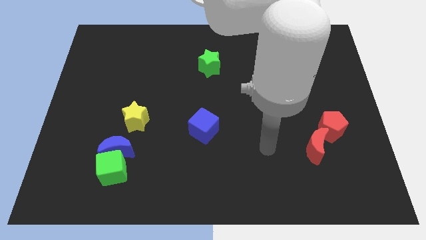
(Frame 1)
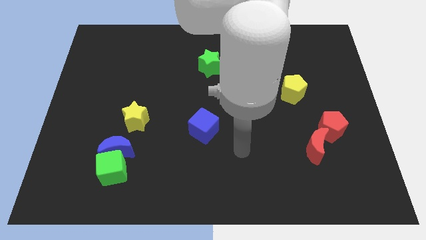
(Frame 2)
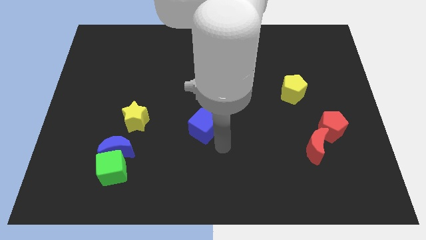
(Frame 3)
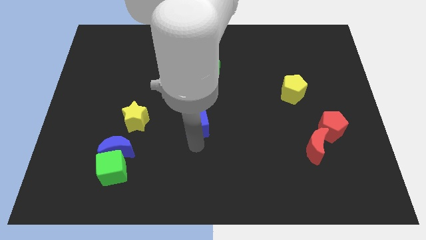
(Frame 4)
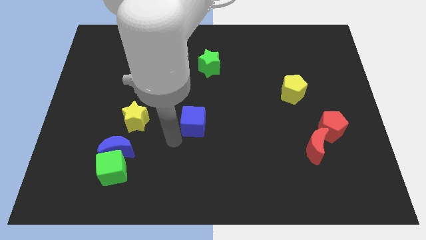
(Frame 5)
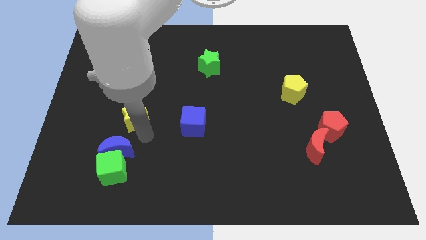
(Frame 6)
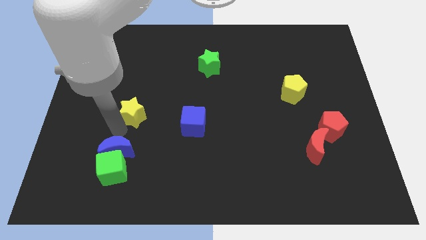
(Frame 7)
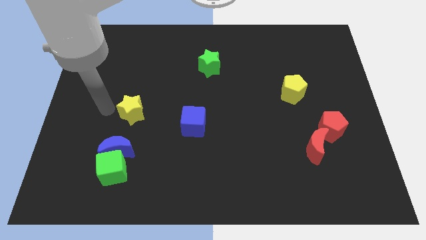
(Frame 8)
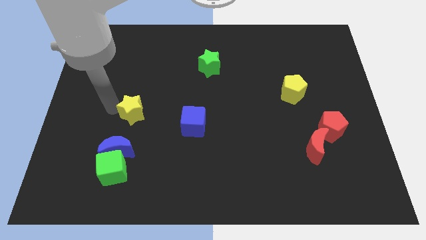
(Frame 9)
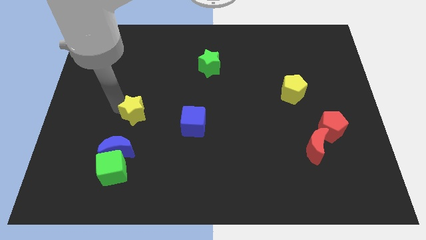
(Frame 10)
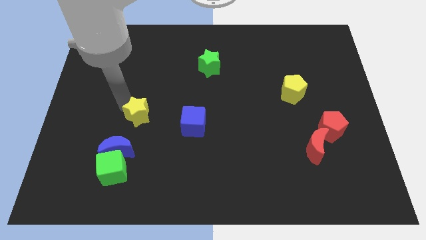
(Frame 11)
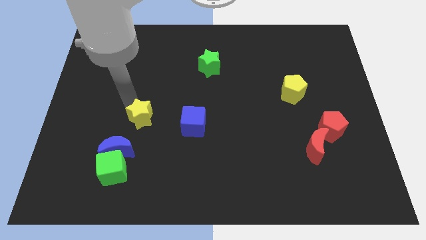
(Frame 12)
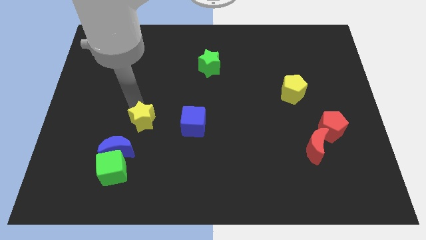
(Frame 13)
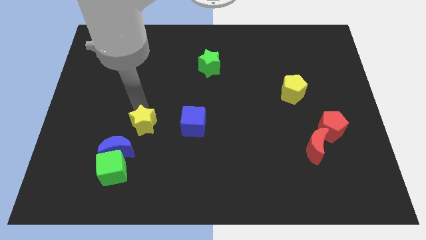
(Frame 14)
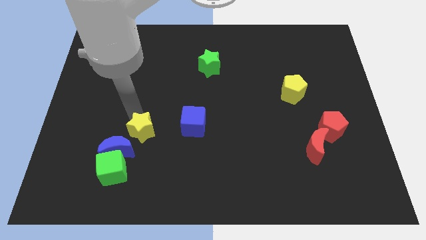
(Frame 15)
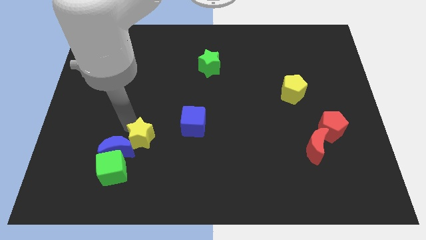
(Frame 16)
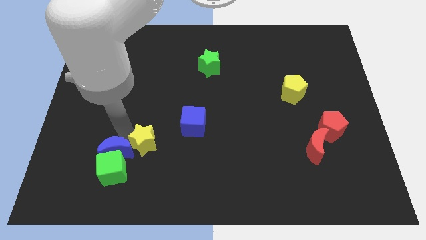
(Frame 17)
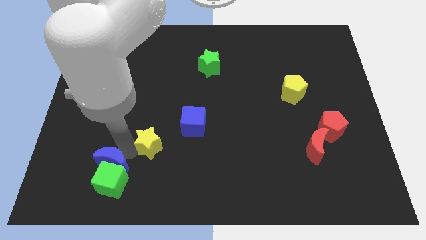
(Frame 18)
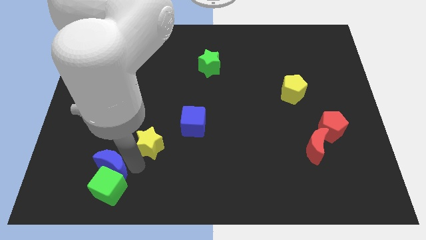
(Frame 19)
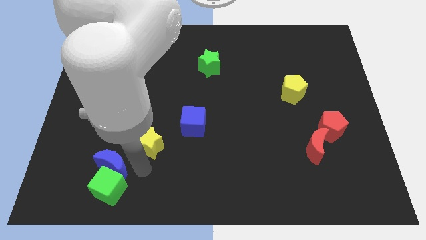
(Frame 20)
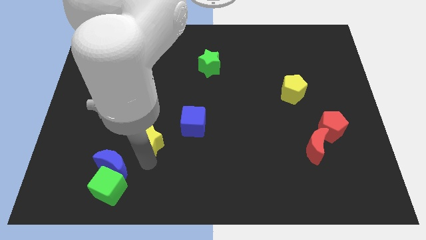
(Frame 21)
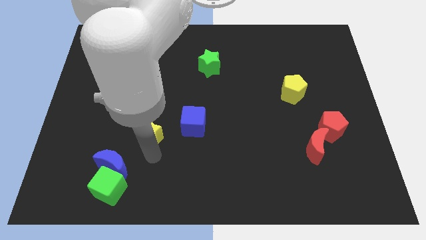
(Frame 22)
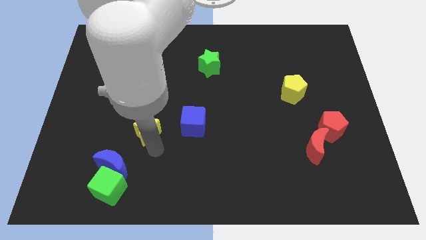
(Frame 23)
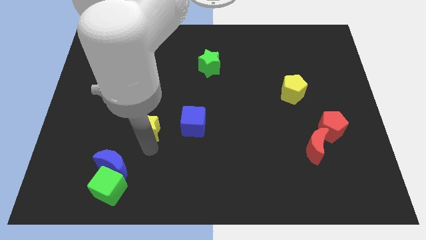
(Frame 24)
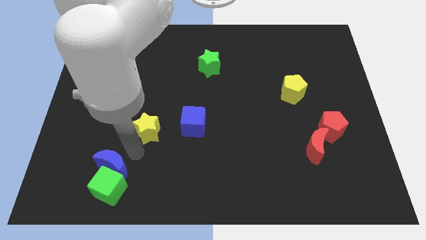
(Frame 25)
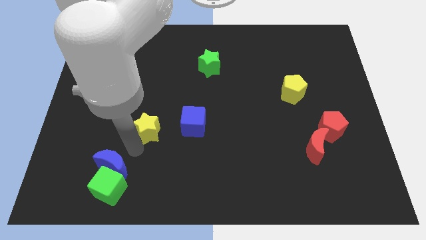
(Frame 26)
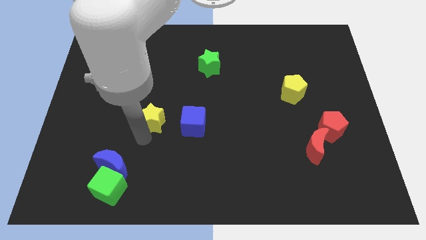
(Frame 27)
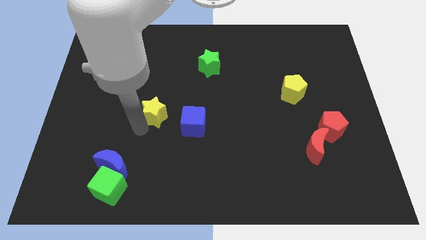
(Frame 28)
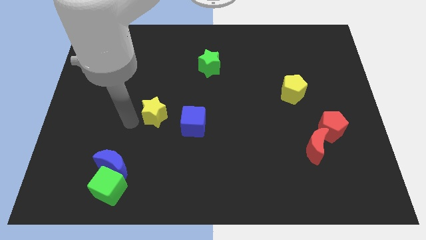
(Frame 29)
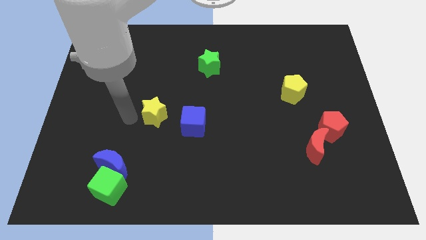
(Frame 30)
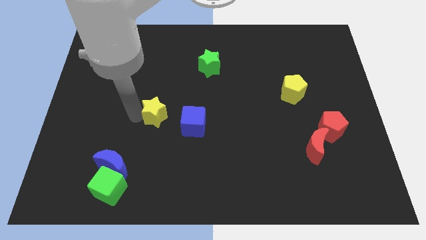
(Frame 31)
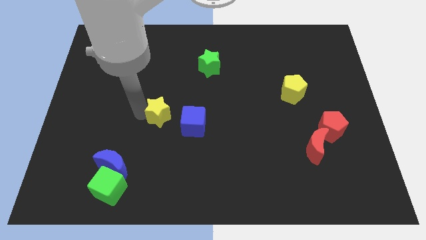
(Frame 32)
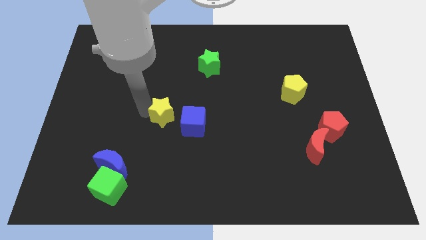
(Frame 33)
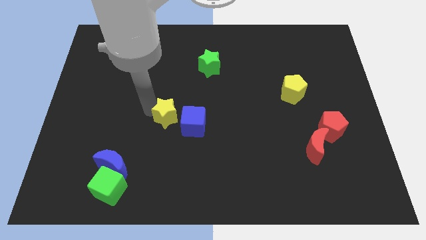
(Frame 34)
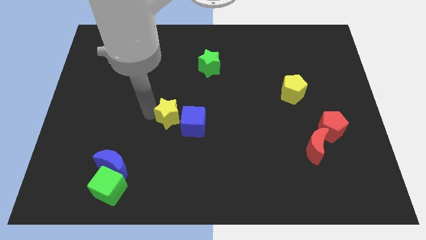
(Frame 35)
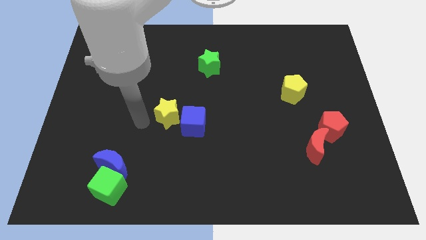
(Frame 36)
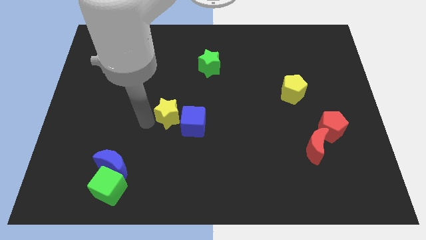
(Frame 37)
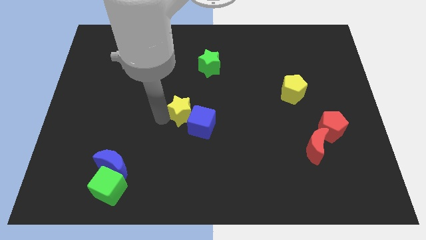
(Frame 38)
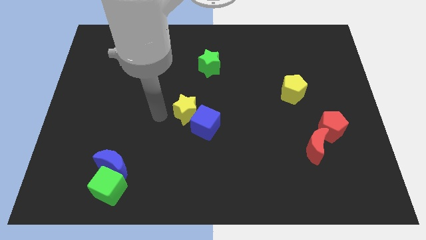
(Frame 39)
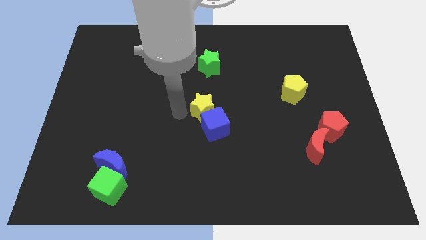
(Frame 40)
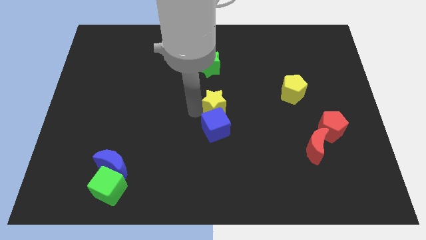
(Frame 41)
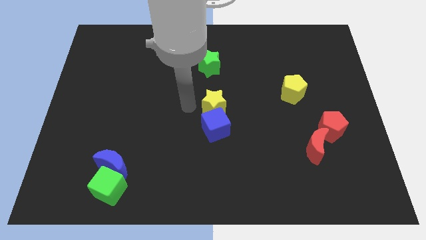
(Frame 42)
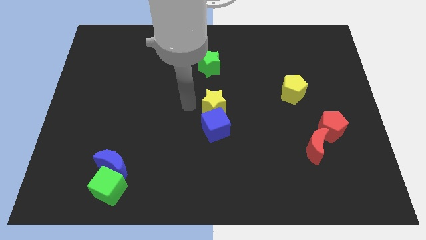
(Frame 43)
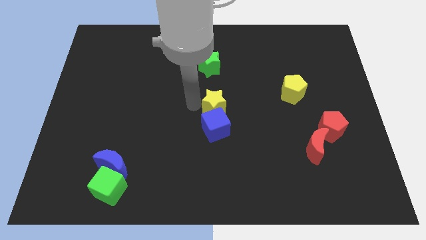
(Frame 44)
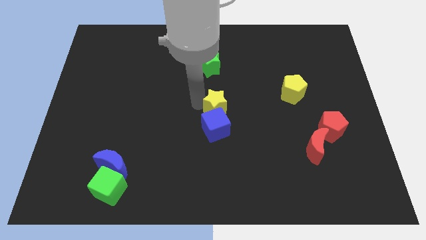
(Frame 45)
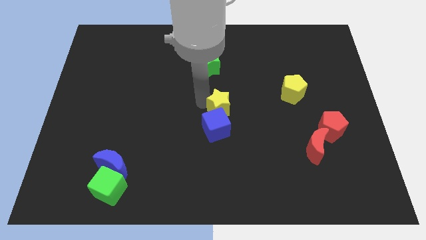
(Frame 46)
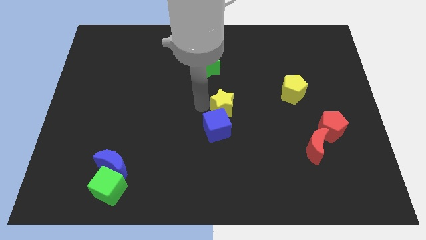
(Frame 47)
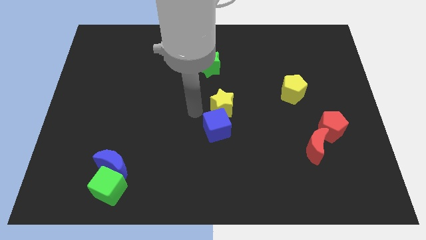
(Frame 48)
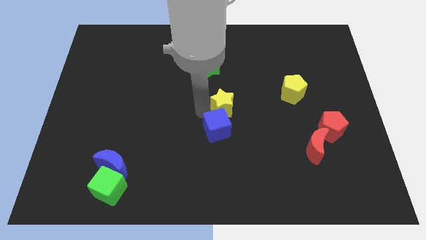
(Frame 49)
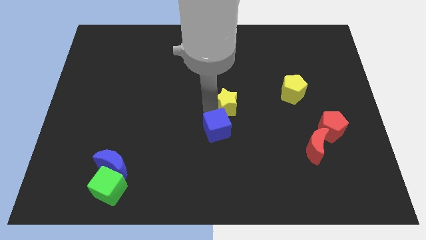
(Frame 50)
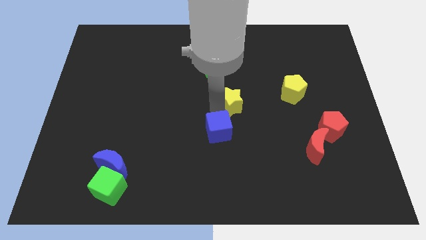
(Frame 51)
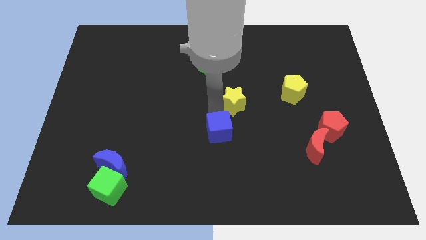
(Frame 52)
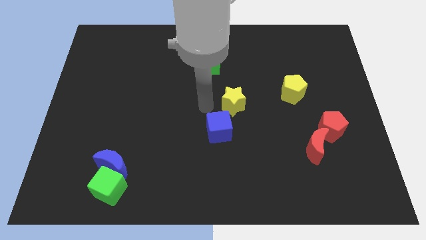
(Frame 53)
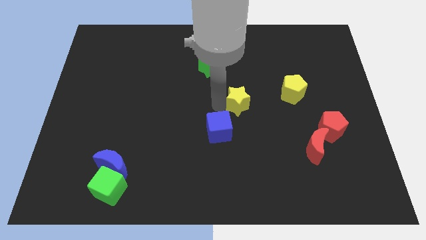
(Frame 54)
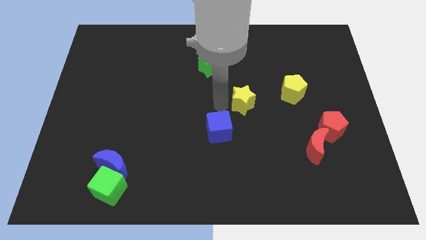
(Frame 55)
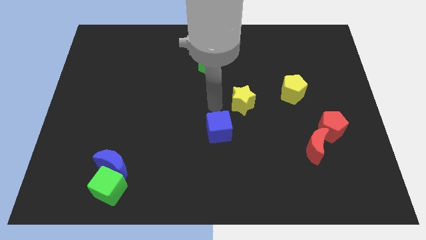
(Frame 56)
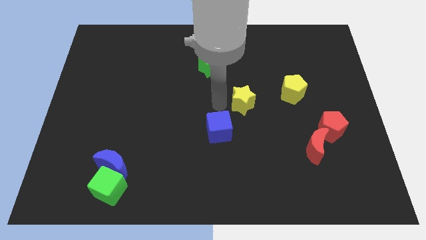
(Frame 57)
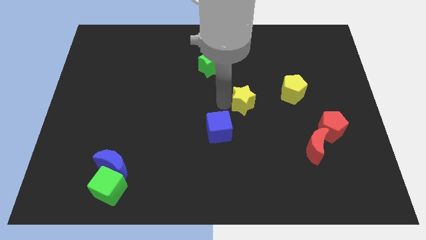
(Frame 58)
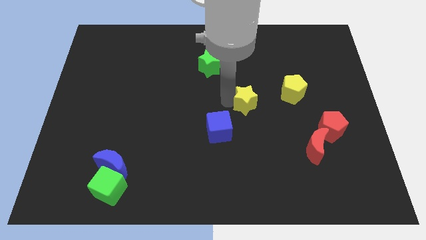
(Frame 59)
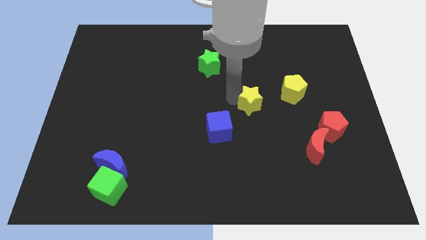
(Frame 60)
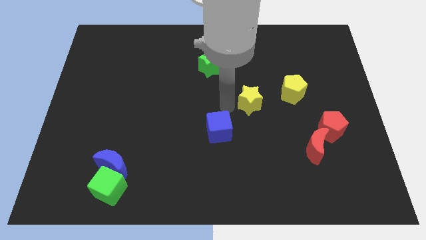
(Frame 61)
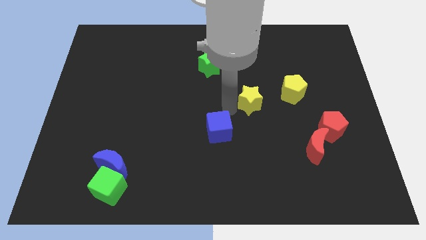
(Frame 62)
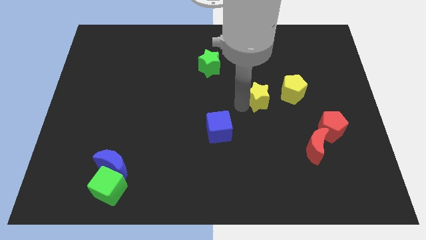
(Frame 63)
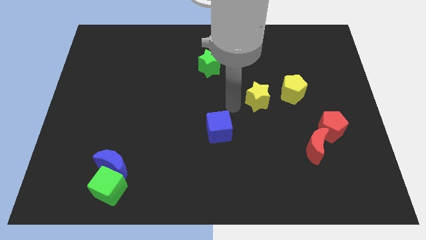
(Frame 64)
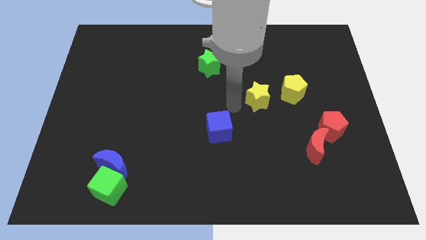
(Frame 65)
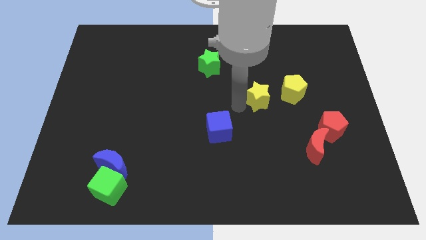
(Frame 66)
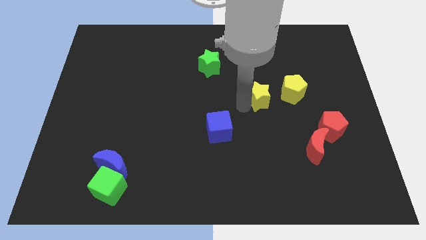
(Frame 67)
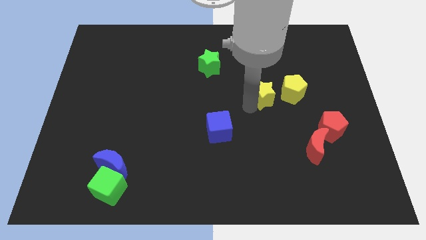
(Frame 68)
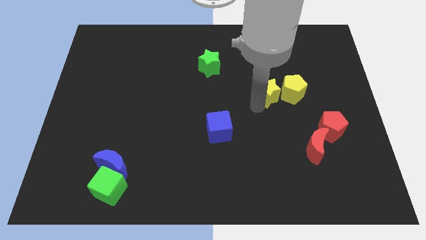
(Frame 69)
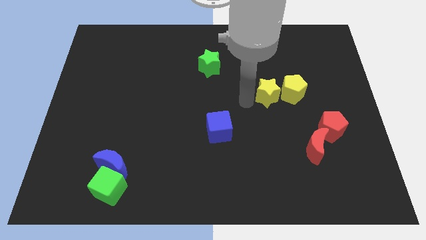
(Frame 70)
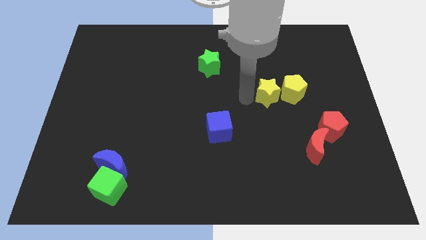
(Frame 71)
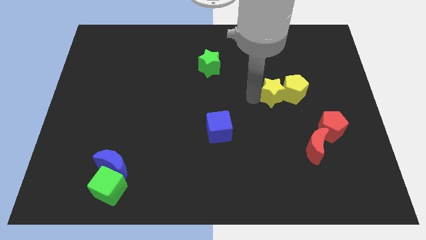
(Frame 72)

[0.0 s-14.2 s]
move the yellow star towards the yellow pentagon

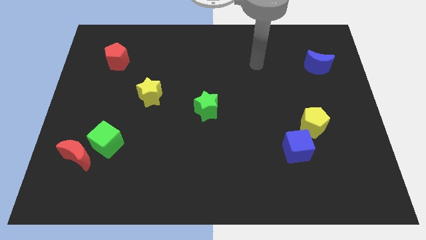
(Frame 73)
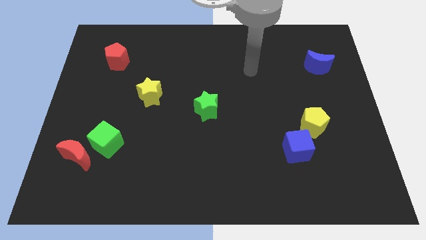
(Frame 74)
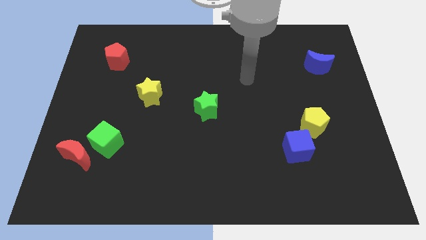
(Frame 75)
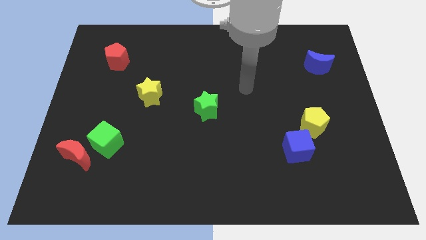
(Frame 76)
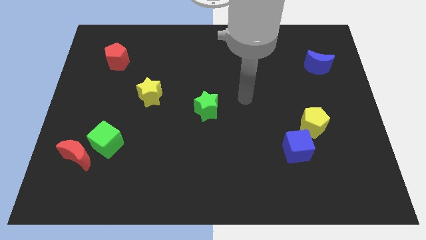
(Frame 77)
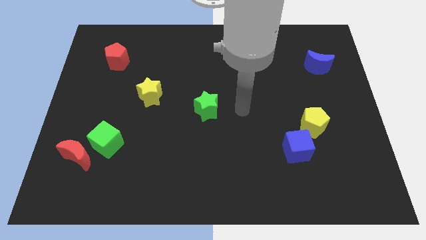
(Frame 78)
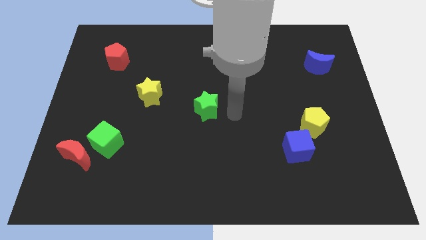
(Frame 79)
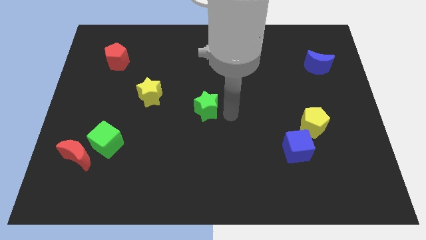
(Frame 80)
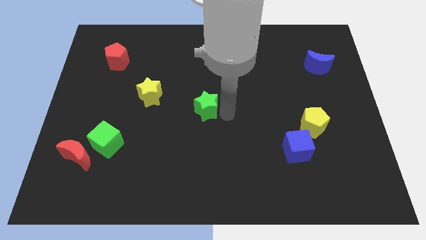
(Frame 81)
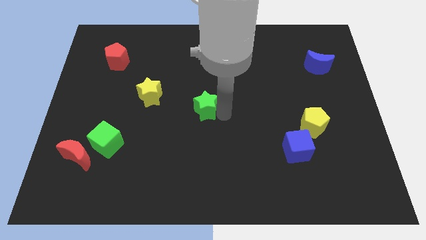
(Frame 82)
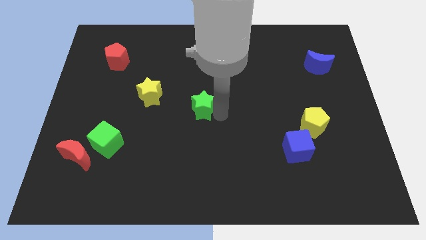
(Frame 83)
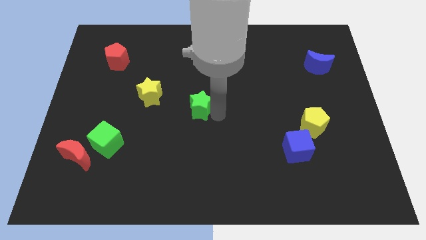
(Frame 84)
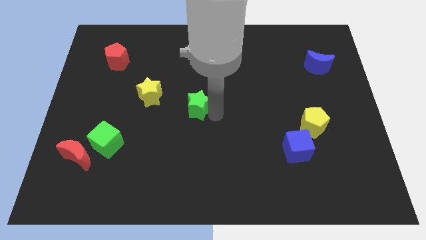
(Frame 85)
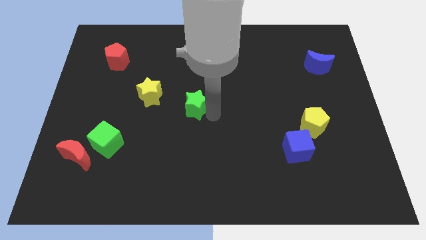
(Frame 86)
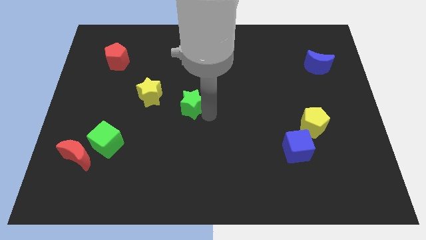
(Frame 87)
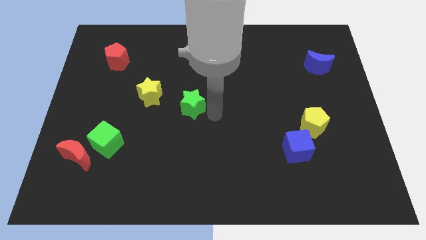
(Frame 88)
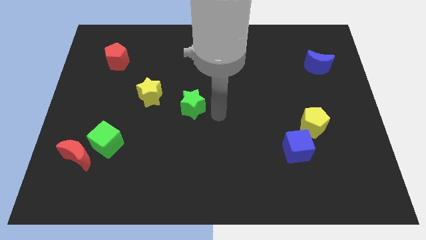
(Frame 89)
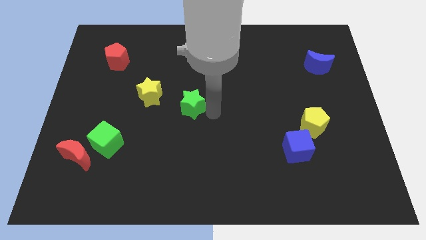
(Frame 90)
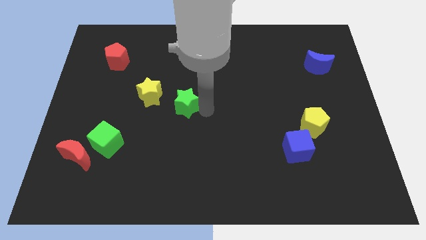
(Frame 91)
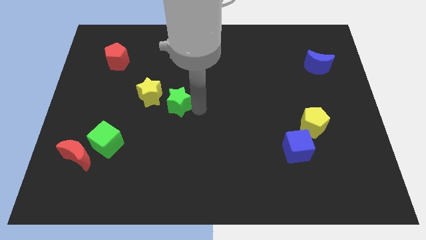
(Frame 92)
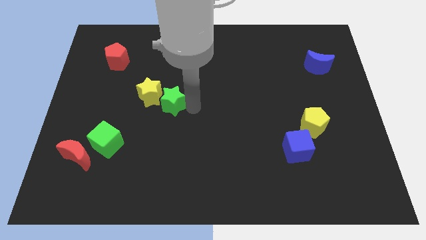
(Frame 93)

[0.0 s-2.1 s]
put the green star towards the yellow star
